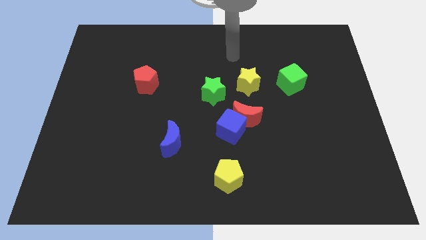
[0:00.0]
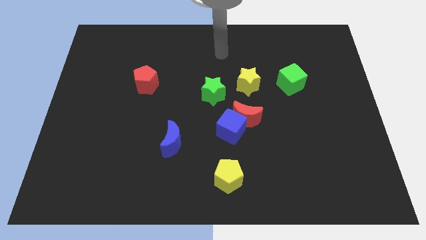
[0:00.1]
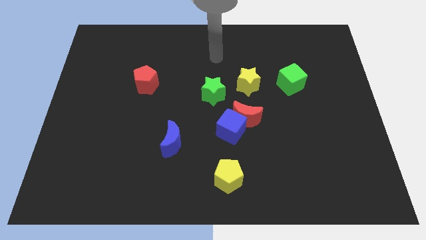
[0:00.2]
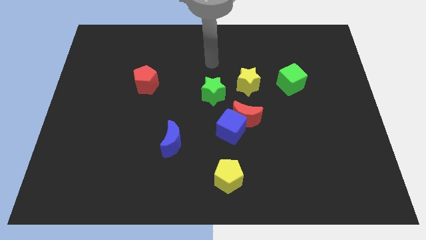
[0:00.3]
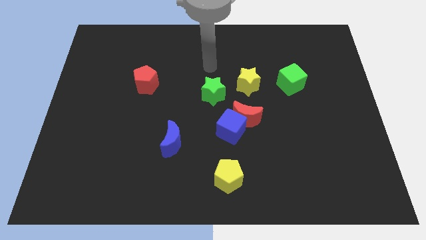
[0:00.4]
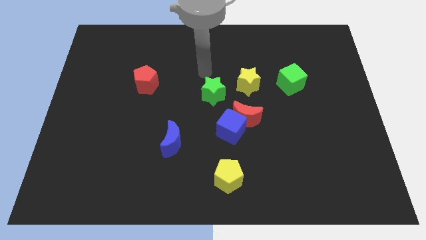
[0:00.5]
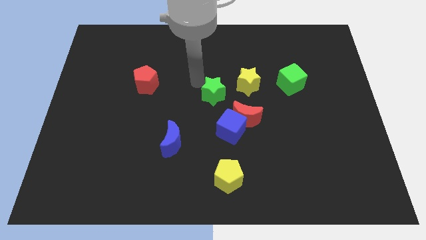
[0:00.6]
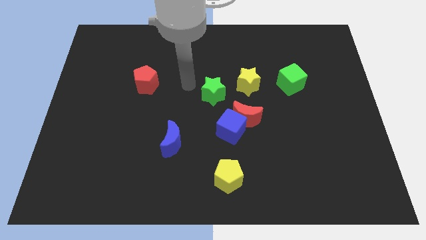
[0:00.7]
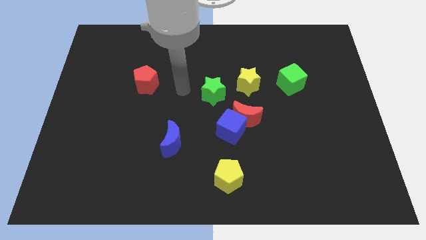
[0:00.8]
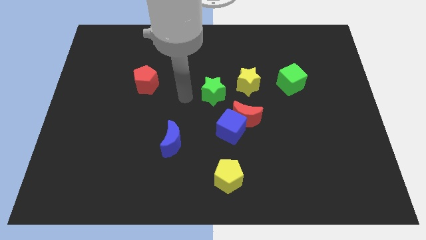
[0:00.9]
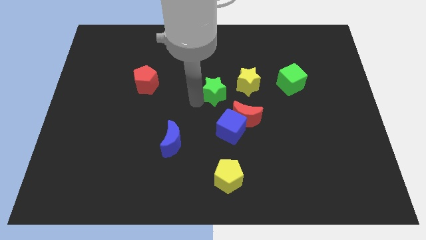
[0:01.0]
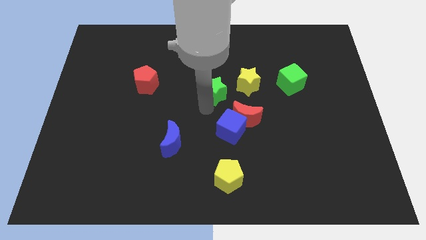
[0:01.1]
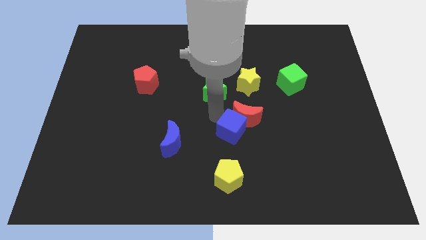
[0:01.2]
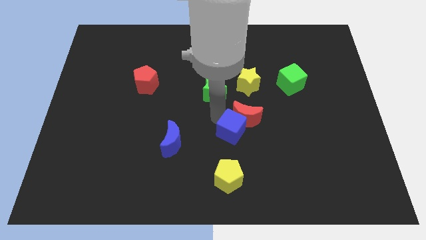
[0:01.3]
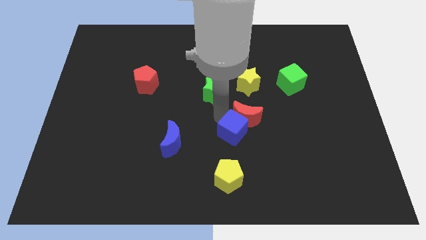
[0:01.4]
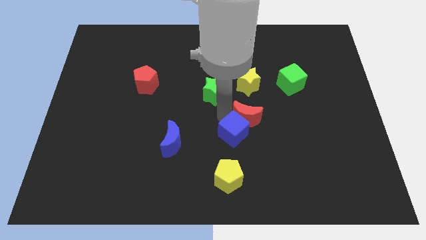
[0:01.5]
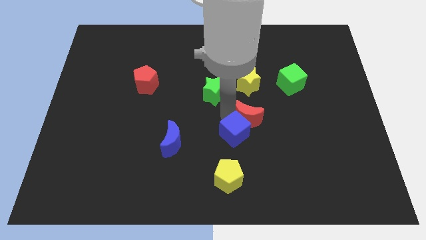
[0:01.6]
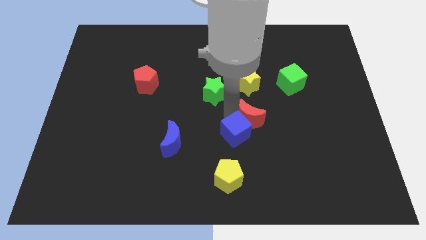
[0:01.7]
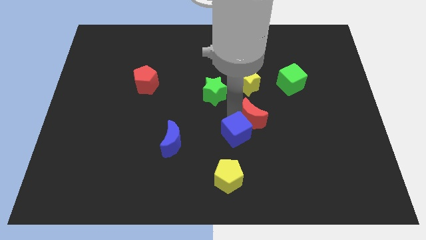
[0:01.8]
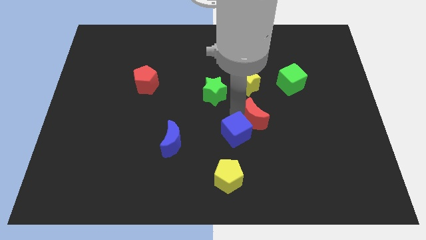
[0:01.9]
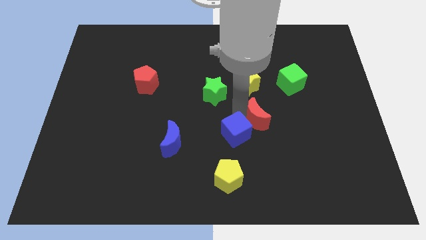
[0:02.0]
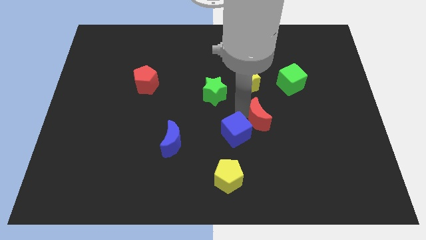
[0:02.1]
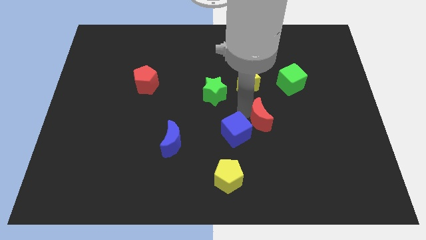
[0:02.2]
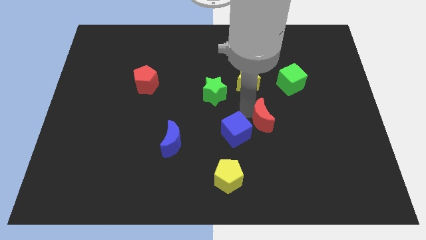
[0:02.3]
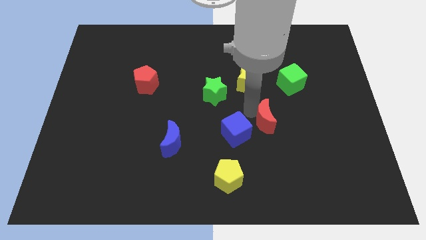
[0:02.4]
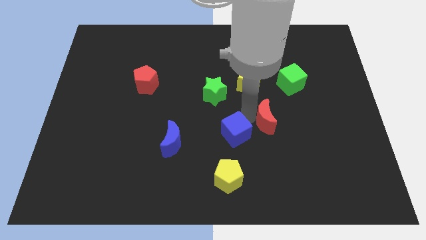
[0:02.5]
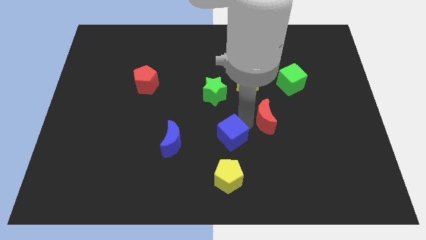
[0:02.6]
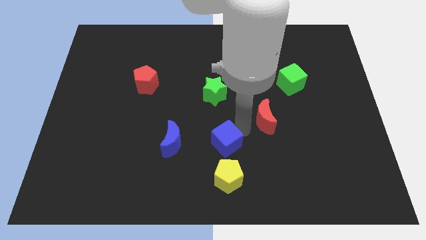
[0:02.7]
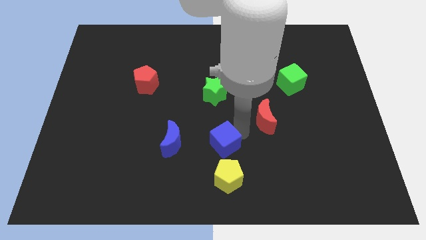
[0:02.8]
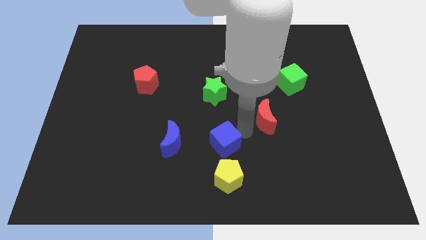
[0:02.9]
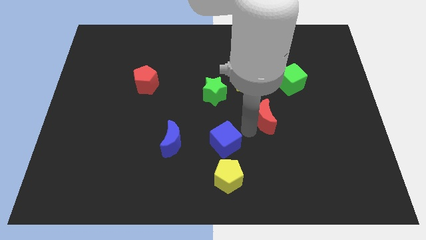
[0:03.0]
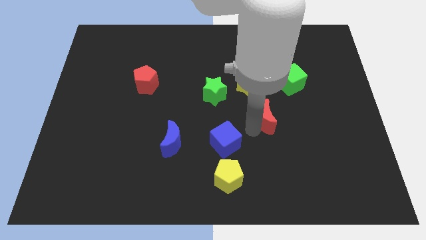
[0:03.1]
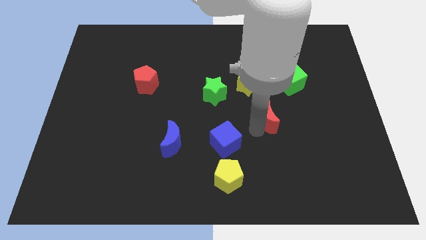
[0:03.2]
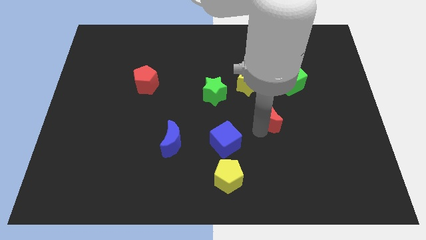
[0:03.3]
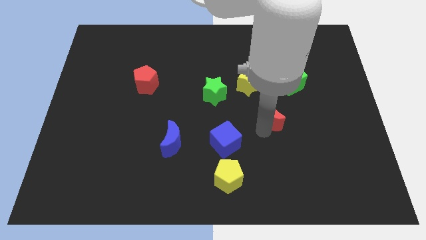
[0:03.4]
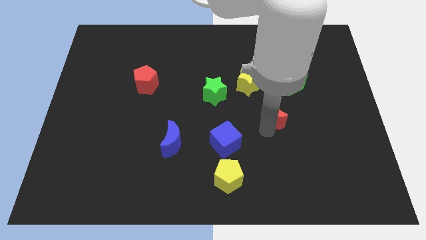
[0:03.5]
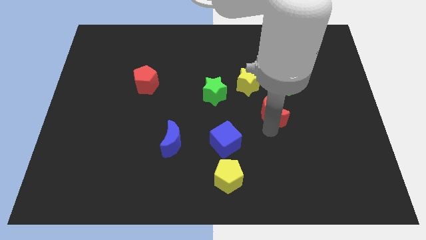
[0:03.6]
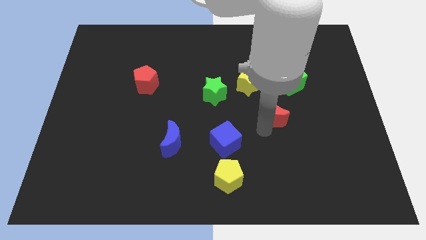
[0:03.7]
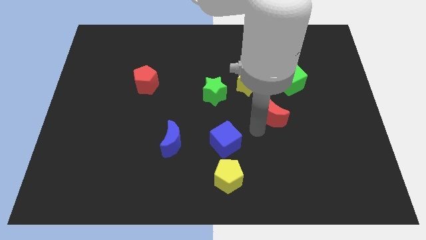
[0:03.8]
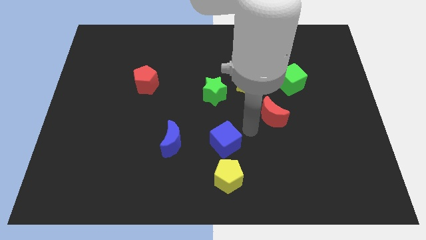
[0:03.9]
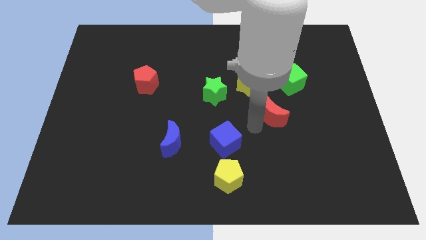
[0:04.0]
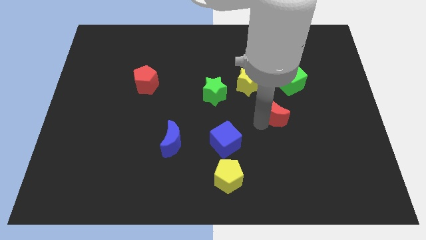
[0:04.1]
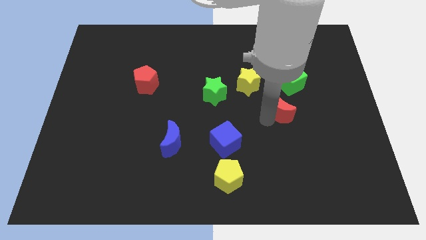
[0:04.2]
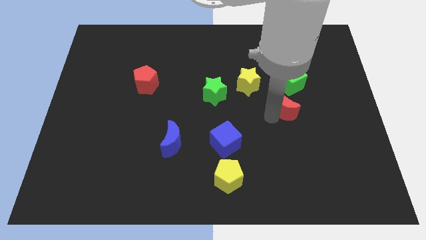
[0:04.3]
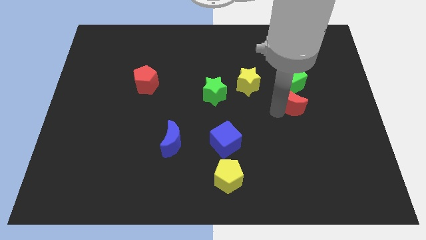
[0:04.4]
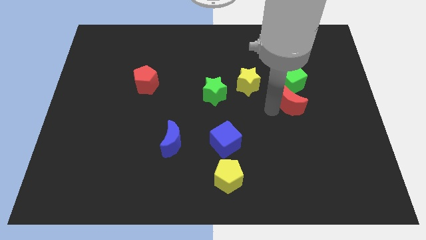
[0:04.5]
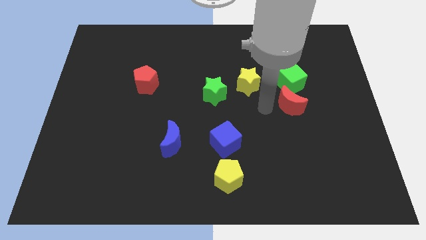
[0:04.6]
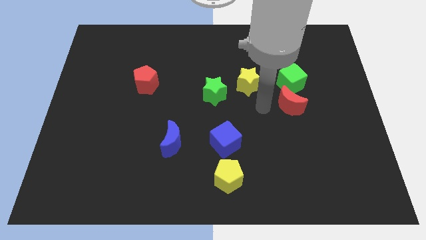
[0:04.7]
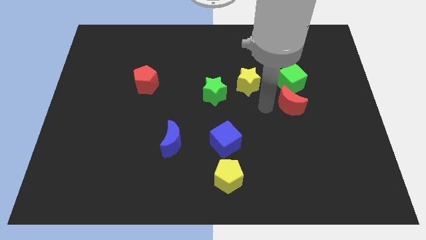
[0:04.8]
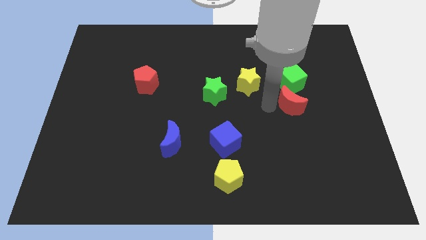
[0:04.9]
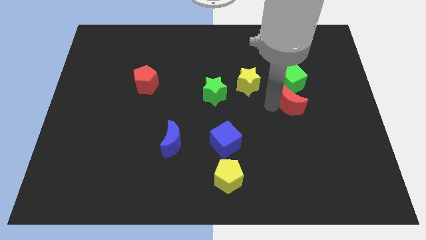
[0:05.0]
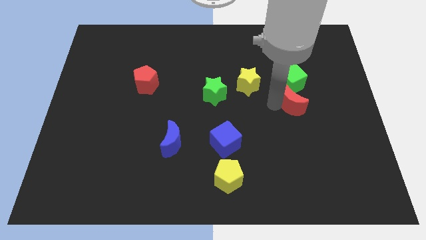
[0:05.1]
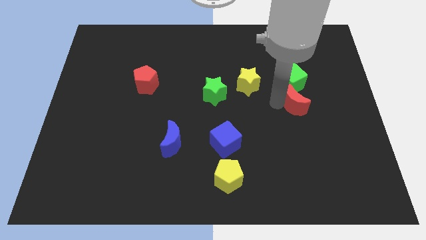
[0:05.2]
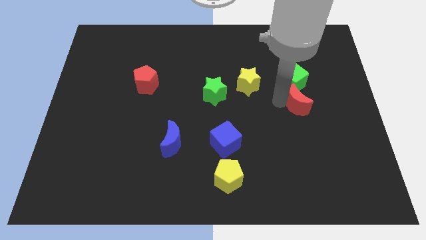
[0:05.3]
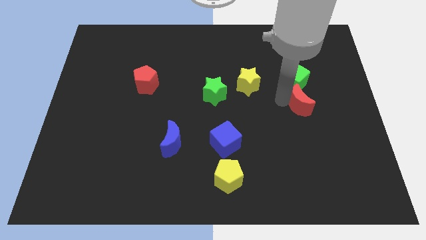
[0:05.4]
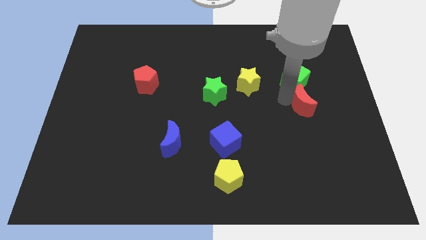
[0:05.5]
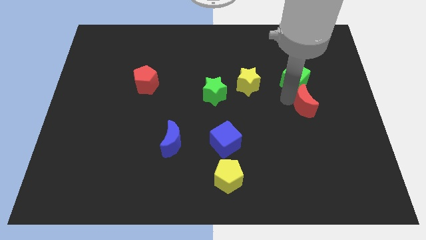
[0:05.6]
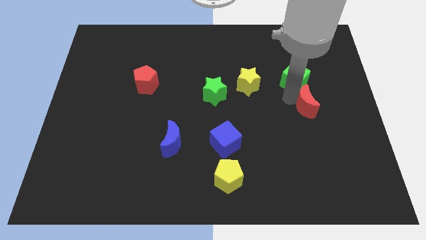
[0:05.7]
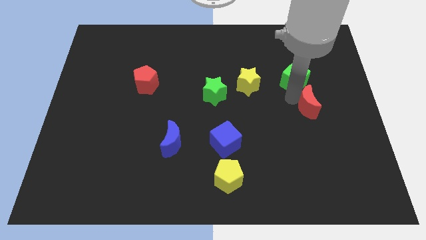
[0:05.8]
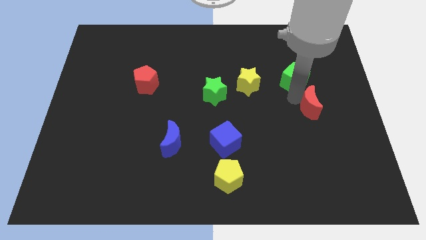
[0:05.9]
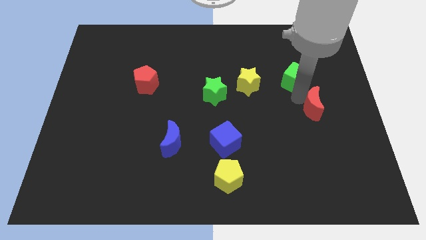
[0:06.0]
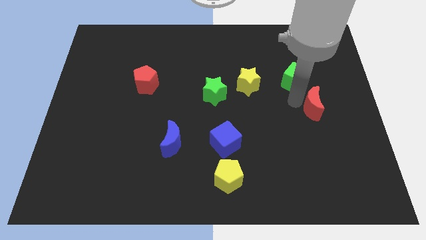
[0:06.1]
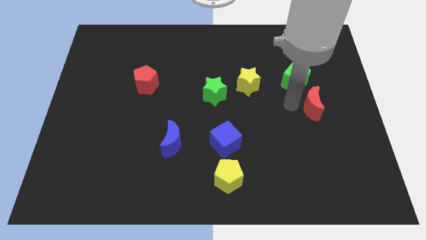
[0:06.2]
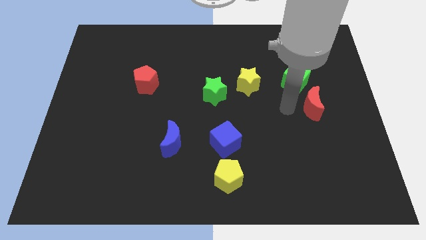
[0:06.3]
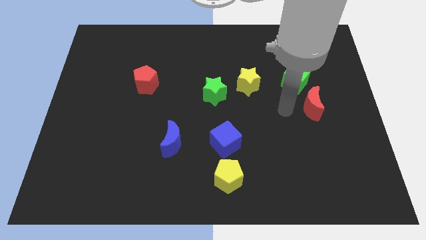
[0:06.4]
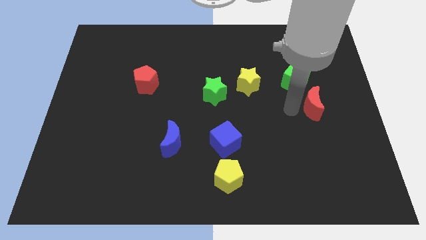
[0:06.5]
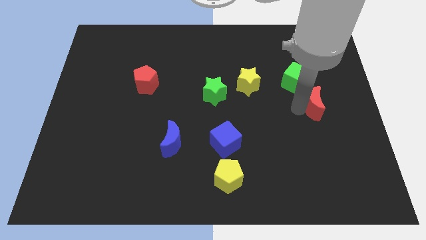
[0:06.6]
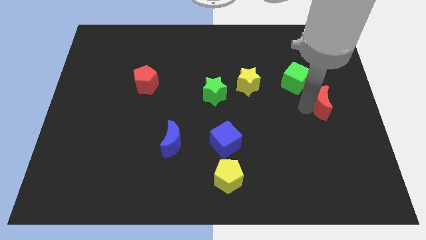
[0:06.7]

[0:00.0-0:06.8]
put the red moon to the right side of the board
